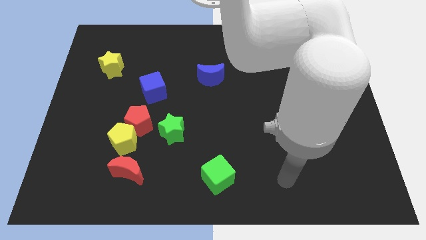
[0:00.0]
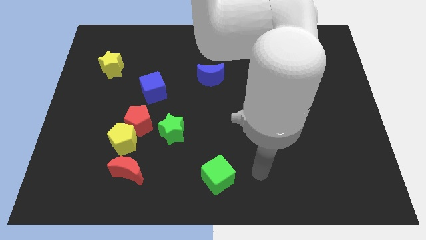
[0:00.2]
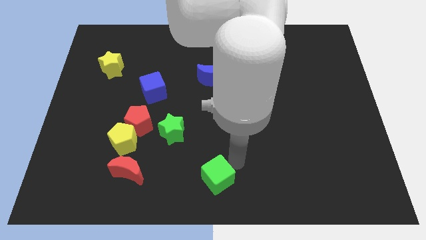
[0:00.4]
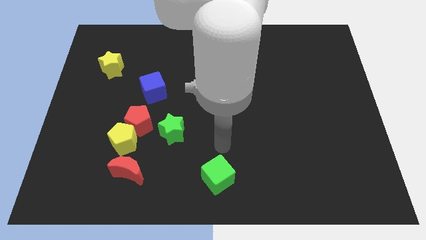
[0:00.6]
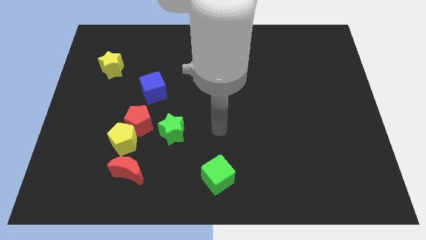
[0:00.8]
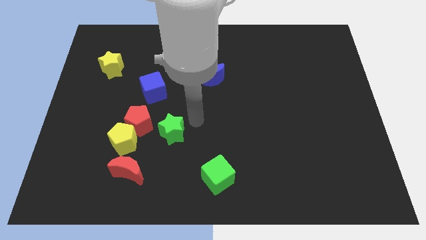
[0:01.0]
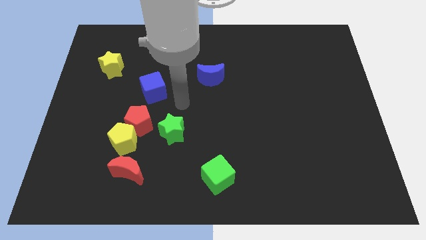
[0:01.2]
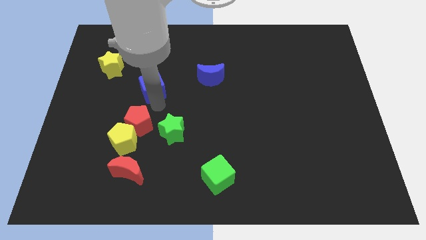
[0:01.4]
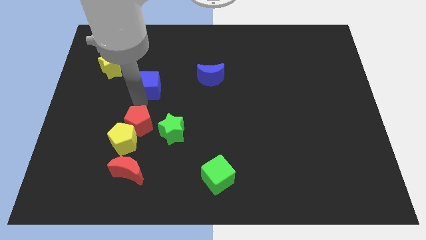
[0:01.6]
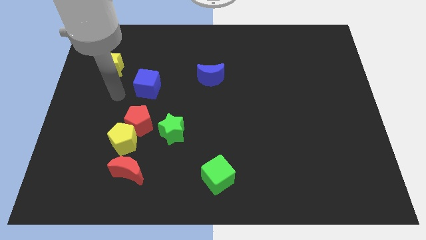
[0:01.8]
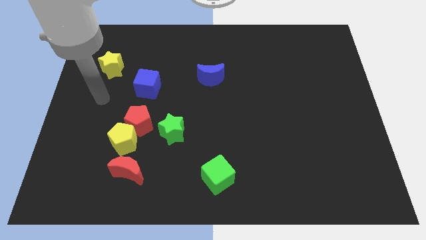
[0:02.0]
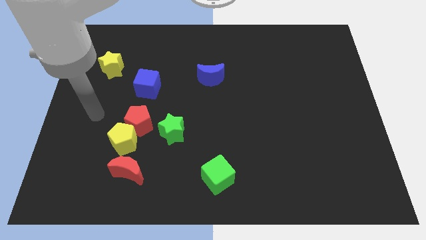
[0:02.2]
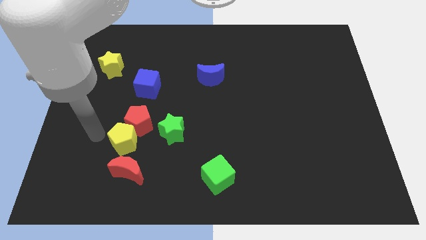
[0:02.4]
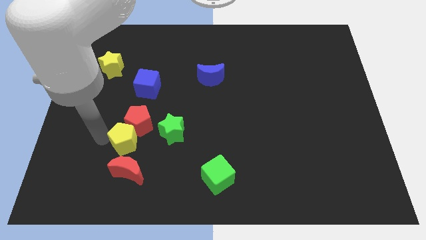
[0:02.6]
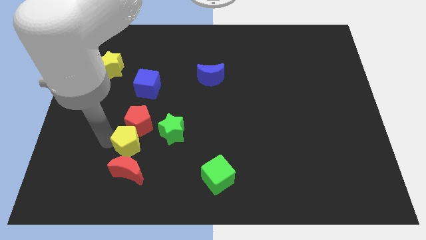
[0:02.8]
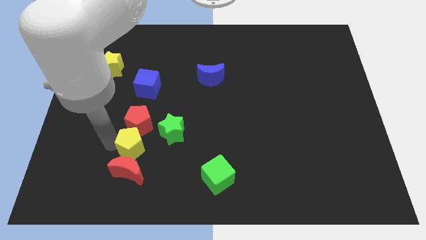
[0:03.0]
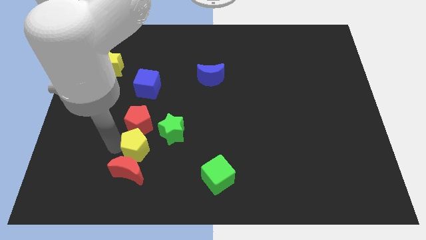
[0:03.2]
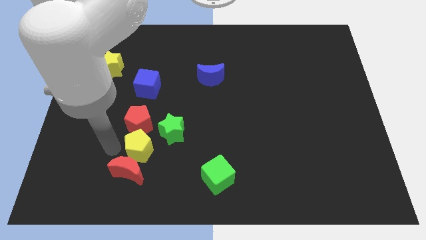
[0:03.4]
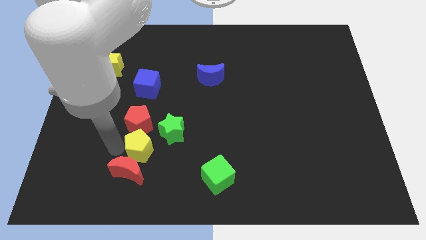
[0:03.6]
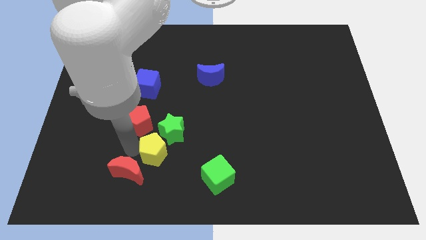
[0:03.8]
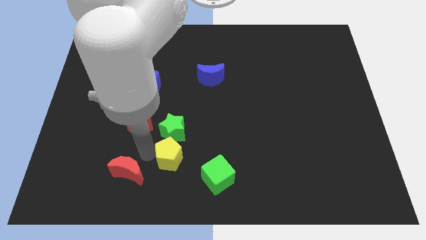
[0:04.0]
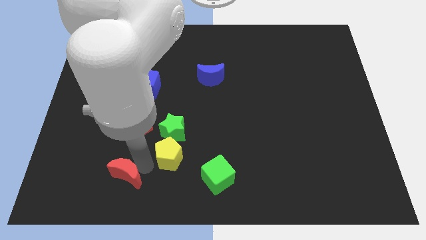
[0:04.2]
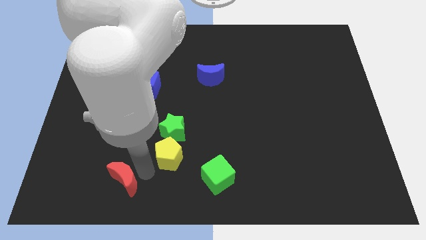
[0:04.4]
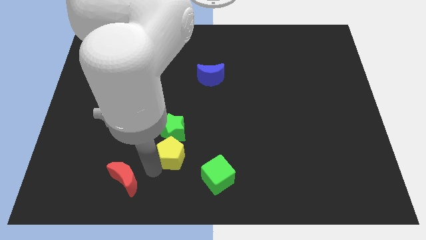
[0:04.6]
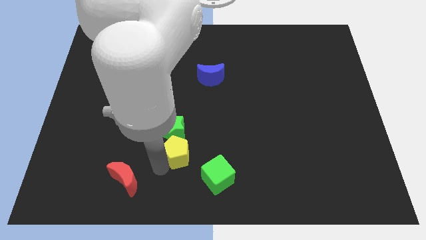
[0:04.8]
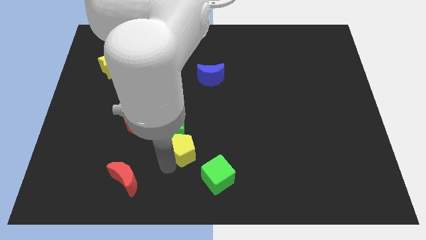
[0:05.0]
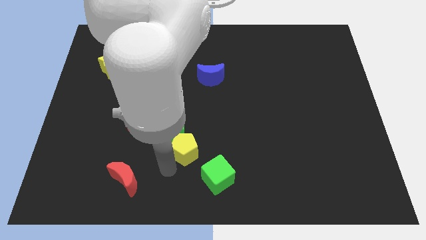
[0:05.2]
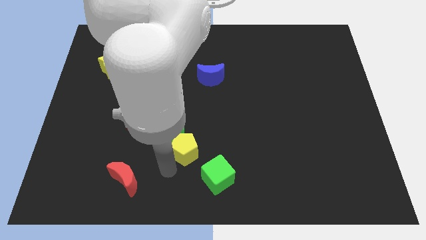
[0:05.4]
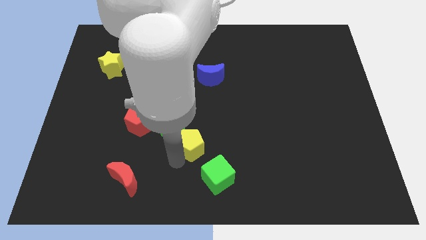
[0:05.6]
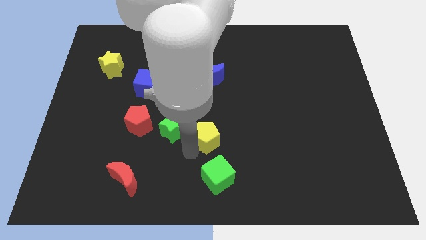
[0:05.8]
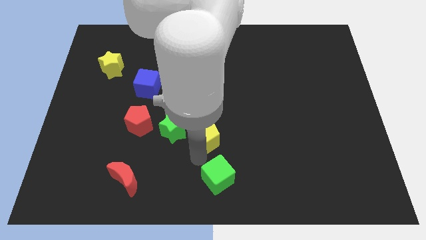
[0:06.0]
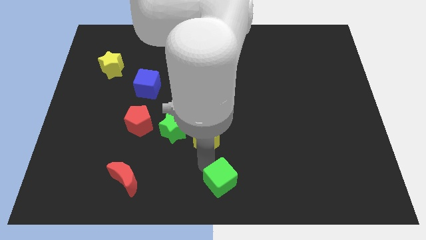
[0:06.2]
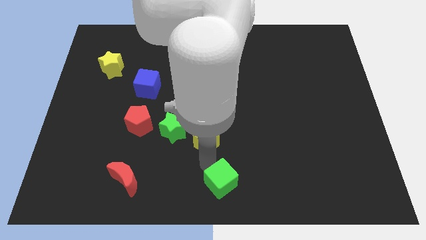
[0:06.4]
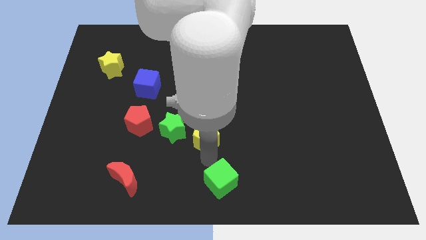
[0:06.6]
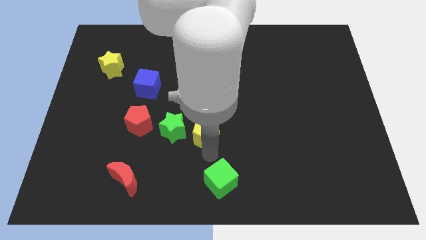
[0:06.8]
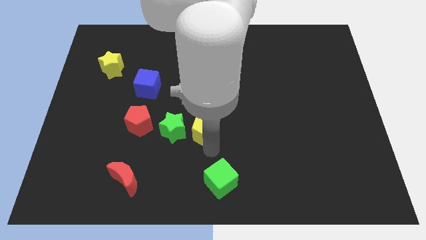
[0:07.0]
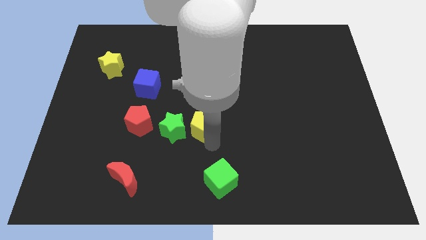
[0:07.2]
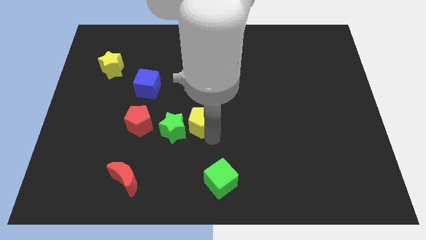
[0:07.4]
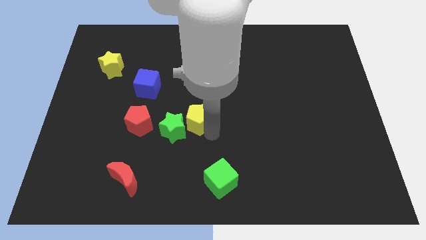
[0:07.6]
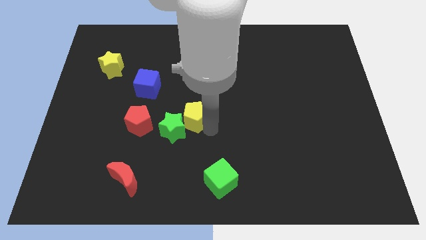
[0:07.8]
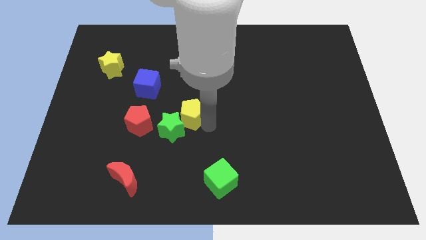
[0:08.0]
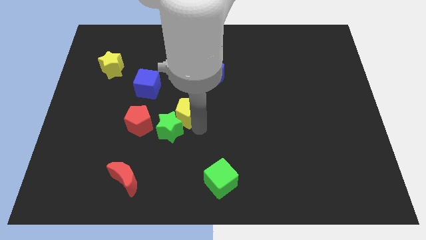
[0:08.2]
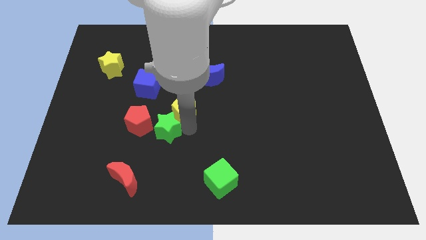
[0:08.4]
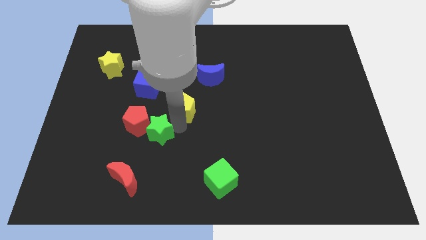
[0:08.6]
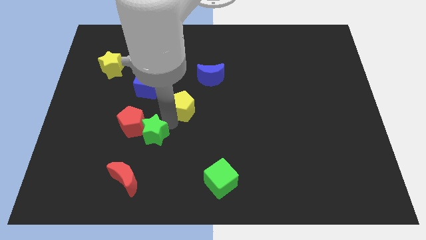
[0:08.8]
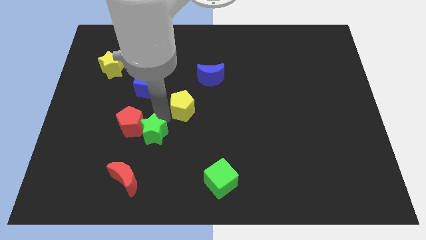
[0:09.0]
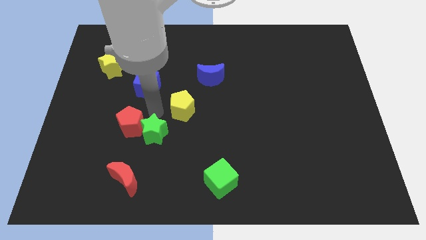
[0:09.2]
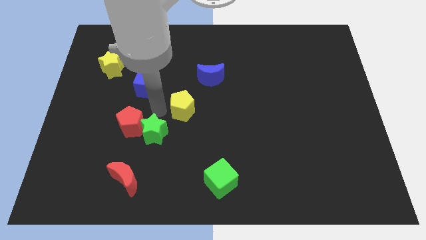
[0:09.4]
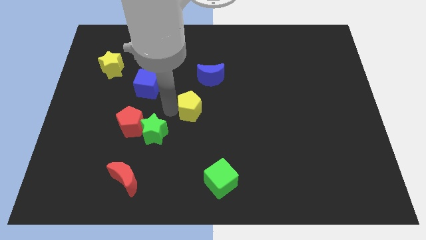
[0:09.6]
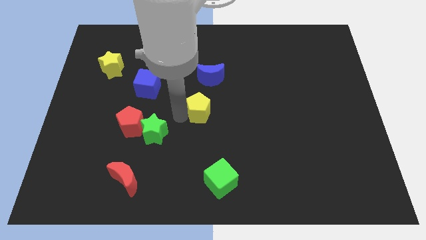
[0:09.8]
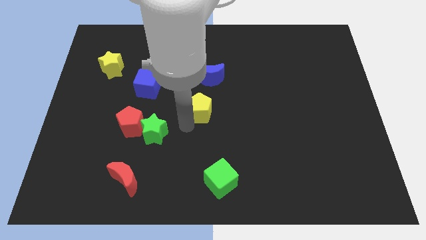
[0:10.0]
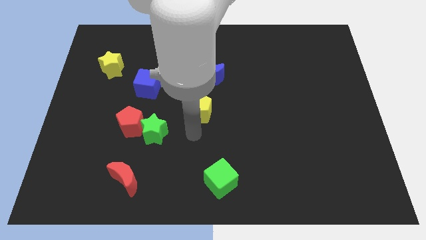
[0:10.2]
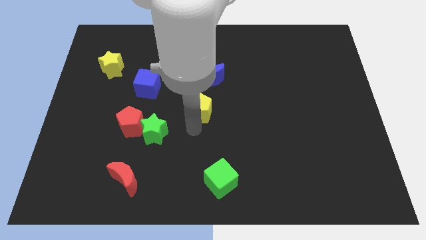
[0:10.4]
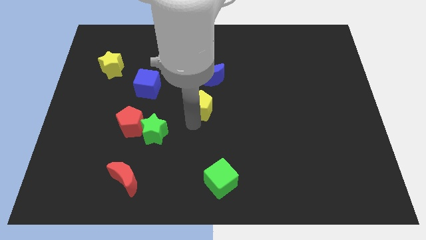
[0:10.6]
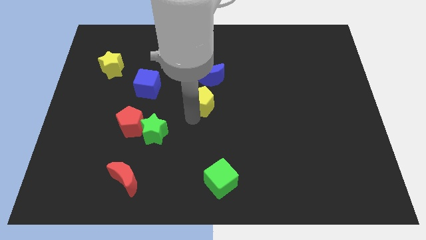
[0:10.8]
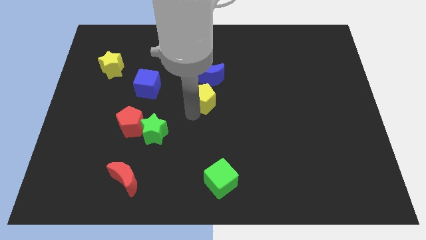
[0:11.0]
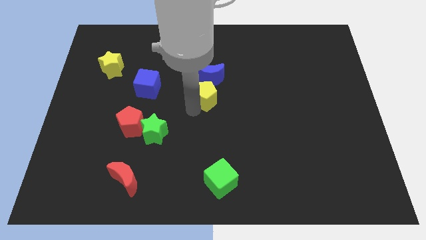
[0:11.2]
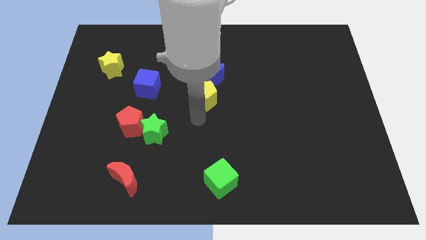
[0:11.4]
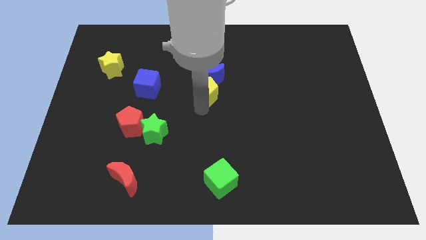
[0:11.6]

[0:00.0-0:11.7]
put the yellow pentagon close to the blue moon

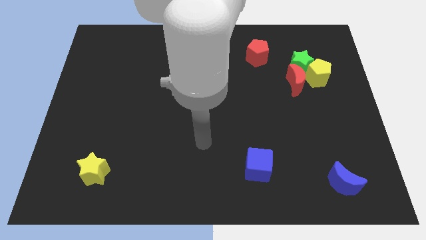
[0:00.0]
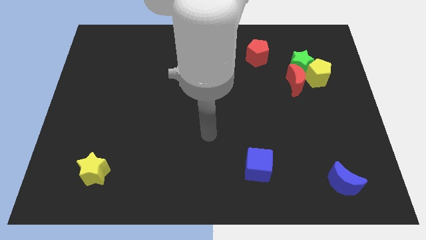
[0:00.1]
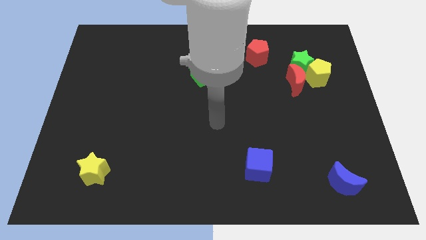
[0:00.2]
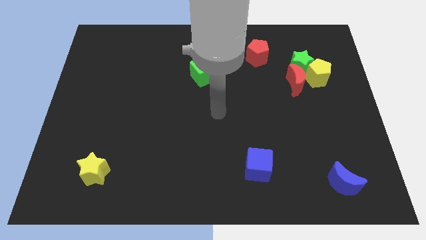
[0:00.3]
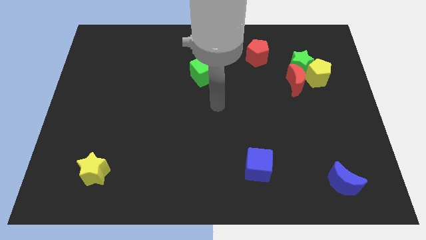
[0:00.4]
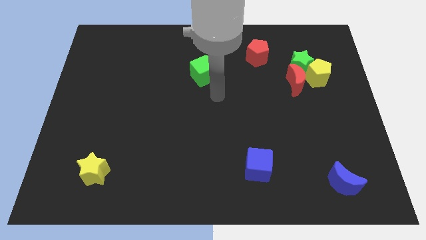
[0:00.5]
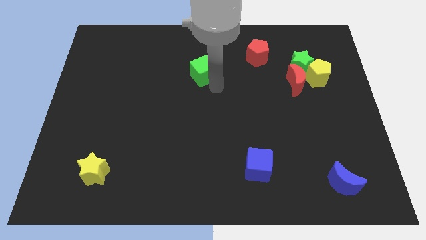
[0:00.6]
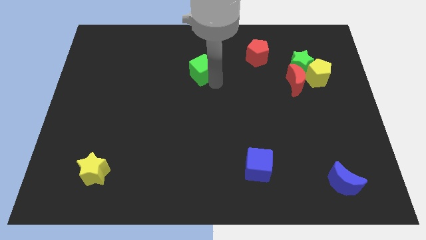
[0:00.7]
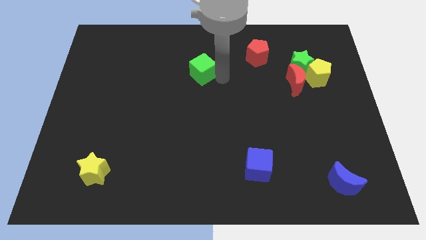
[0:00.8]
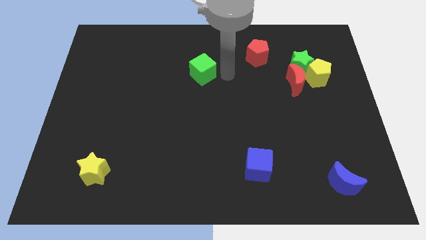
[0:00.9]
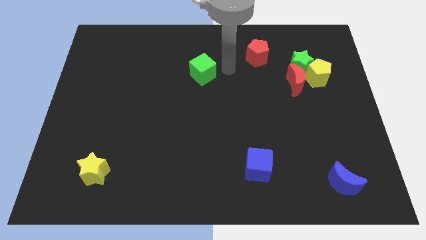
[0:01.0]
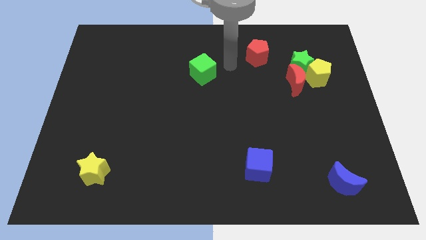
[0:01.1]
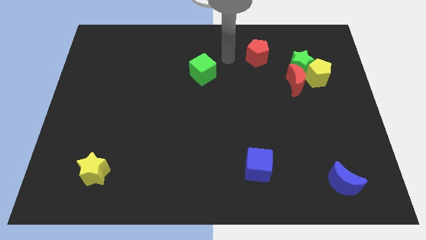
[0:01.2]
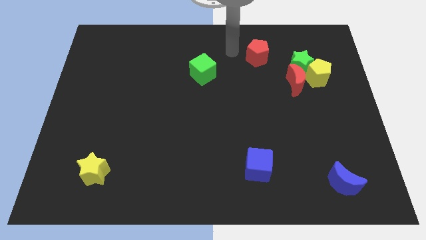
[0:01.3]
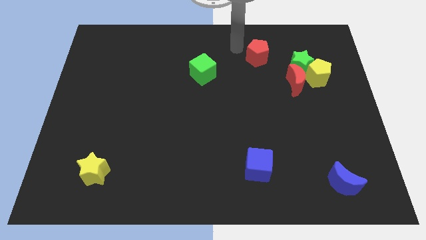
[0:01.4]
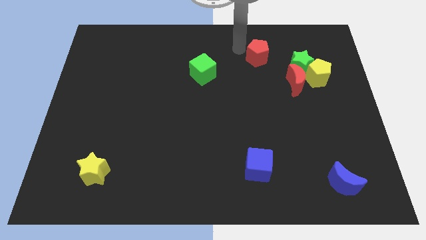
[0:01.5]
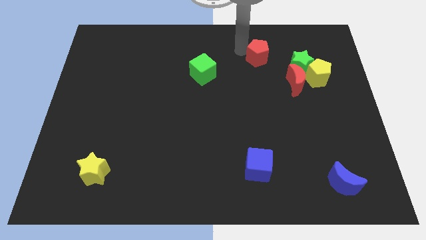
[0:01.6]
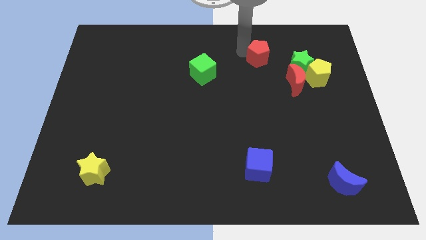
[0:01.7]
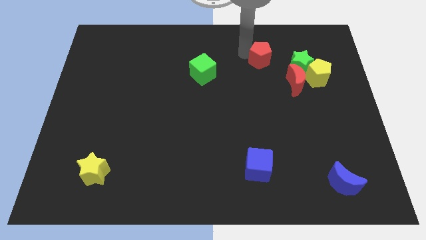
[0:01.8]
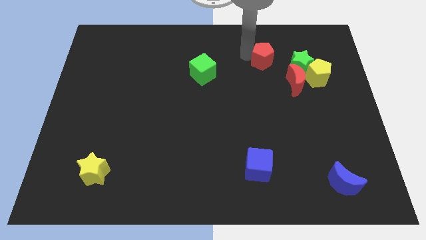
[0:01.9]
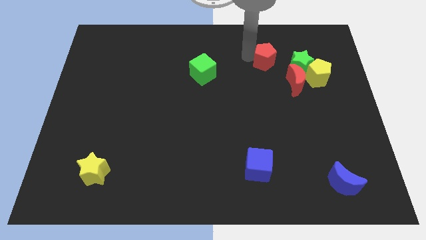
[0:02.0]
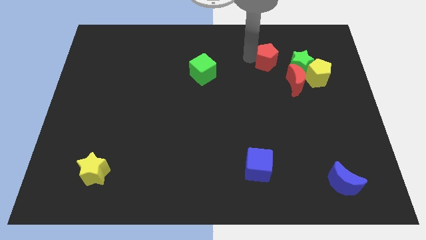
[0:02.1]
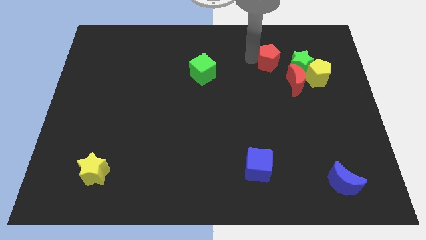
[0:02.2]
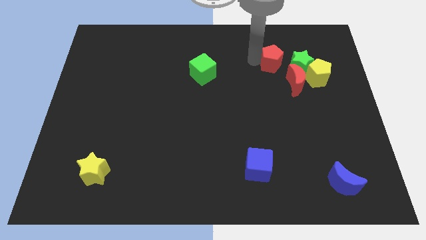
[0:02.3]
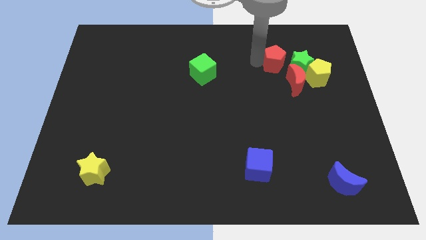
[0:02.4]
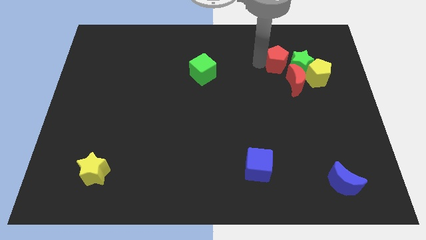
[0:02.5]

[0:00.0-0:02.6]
slide the red pentagon next to the green star
